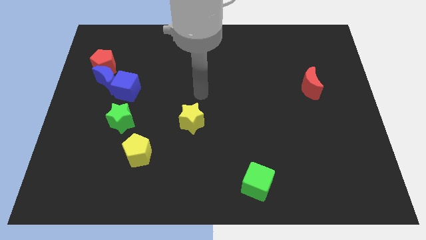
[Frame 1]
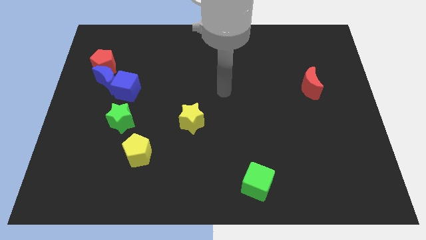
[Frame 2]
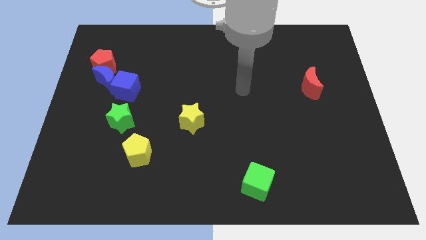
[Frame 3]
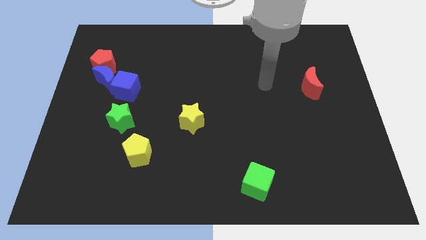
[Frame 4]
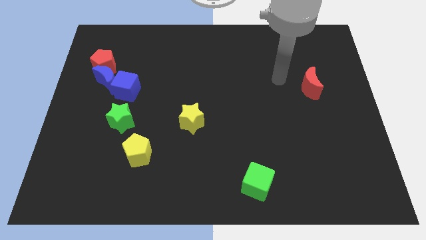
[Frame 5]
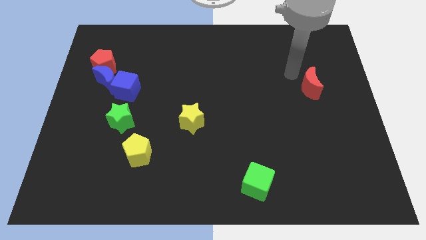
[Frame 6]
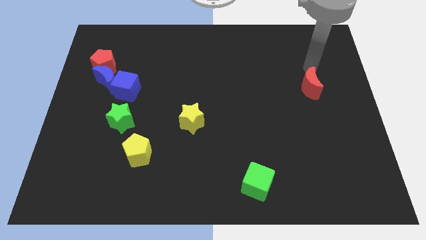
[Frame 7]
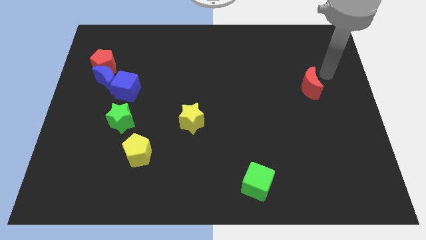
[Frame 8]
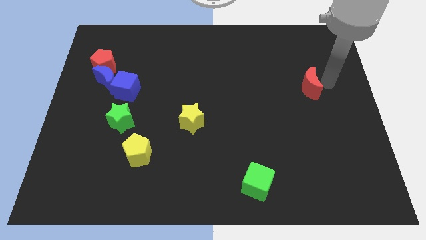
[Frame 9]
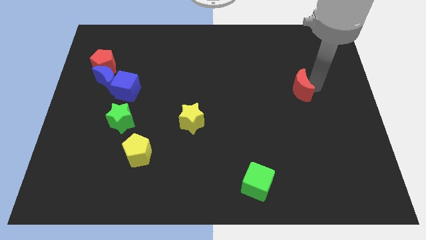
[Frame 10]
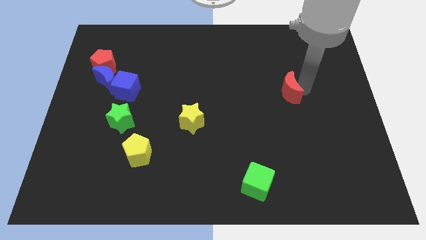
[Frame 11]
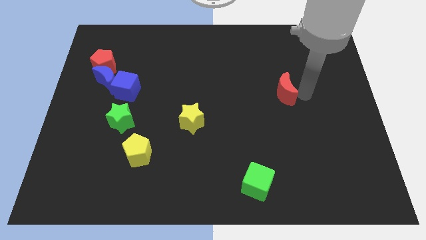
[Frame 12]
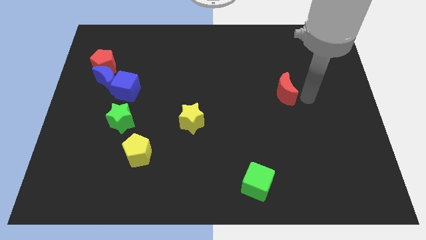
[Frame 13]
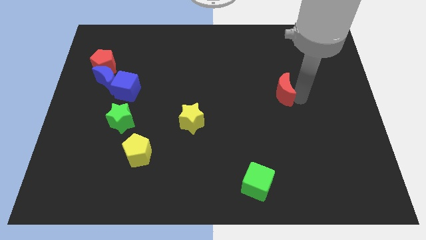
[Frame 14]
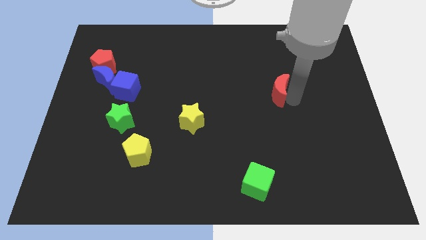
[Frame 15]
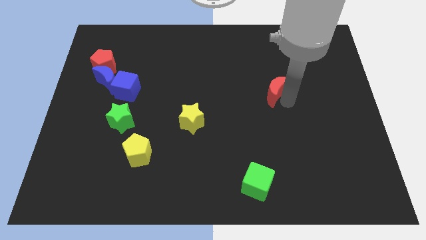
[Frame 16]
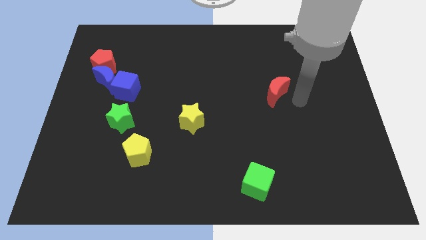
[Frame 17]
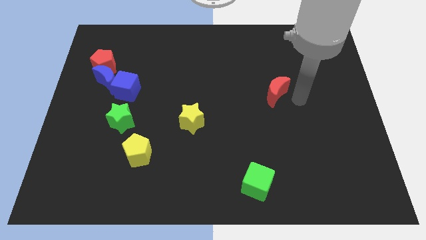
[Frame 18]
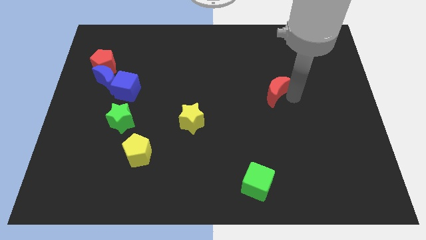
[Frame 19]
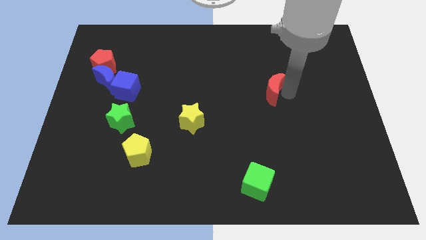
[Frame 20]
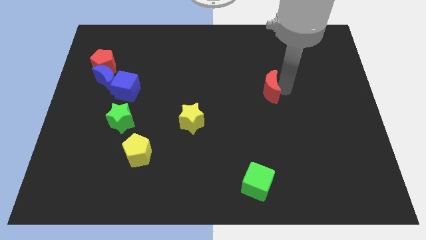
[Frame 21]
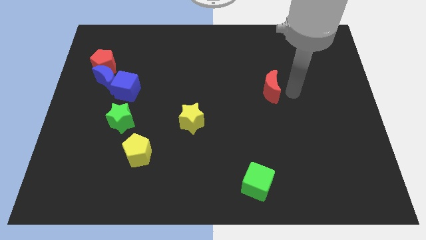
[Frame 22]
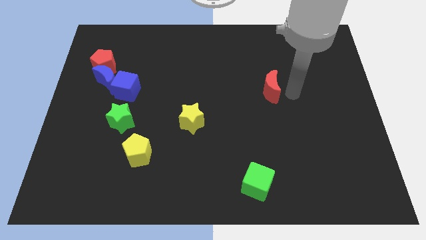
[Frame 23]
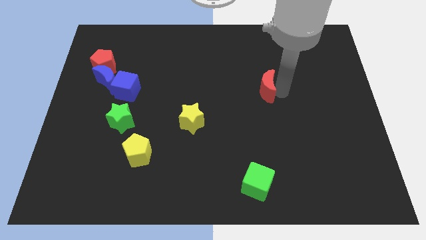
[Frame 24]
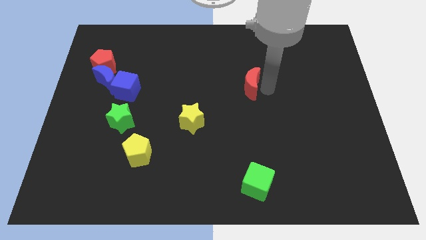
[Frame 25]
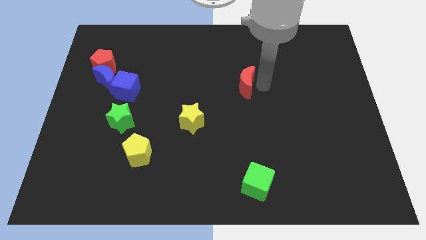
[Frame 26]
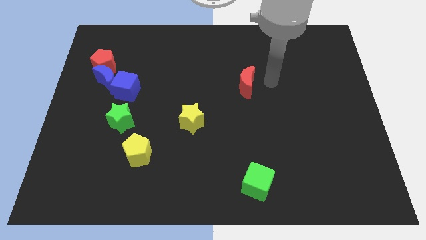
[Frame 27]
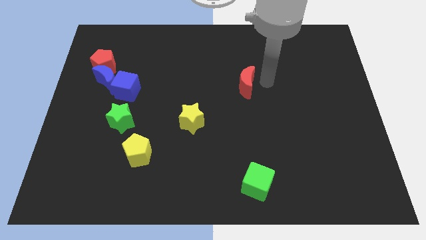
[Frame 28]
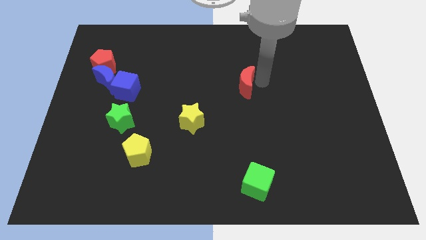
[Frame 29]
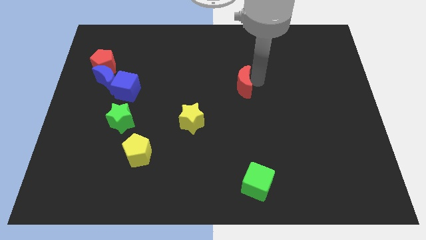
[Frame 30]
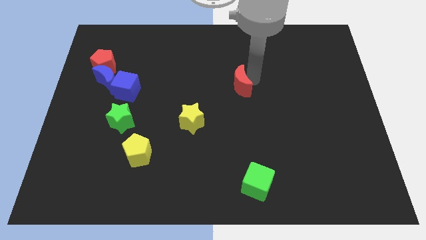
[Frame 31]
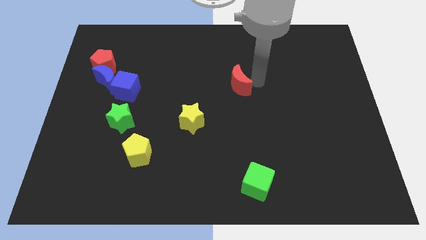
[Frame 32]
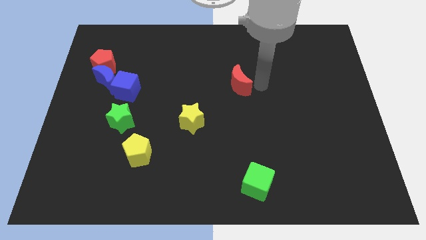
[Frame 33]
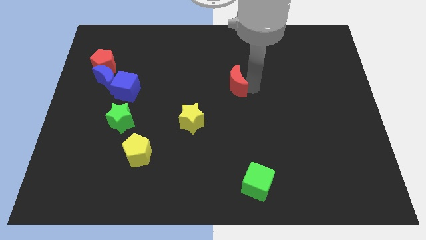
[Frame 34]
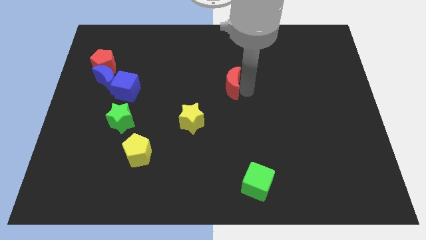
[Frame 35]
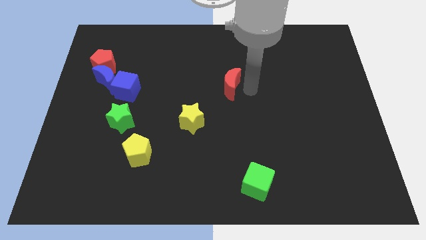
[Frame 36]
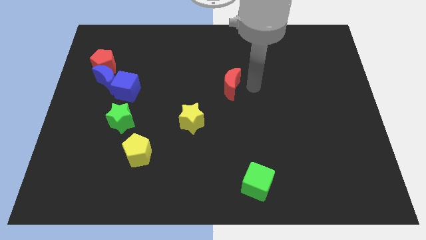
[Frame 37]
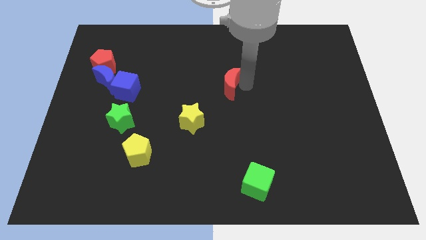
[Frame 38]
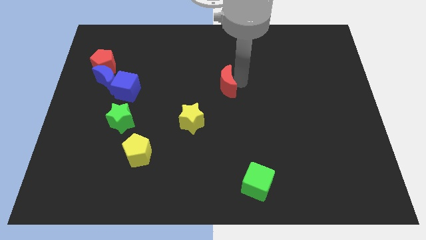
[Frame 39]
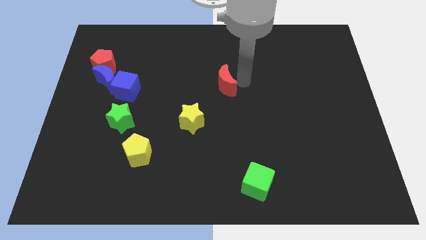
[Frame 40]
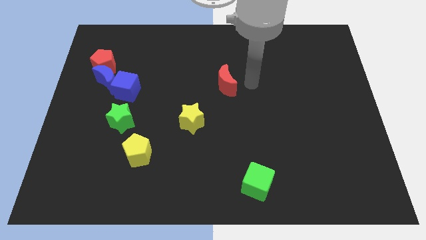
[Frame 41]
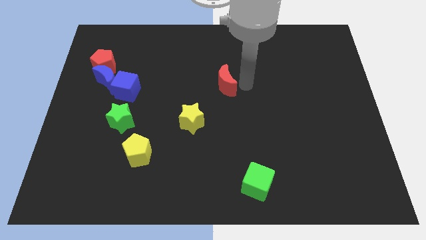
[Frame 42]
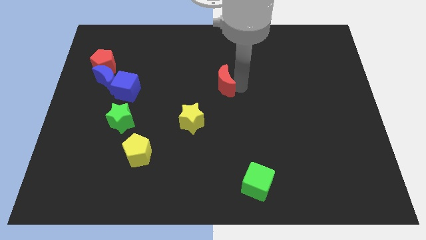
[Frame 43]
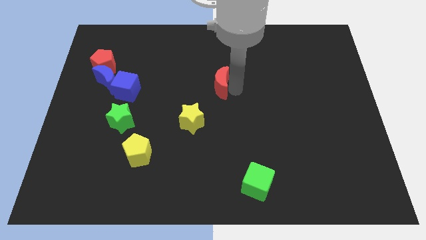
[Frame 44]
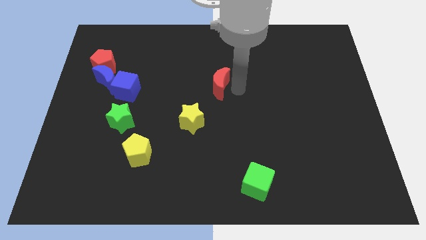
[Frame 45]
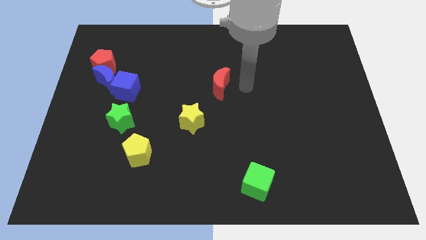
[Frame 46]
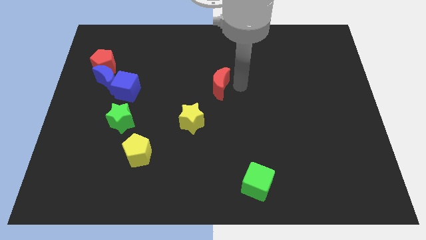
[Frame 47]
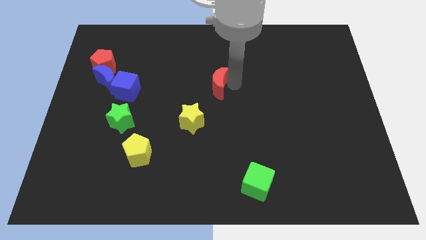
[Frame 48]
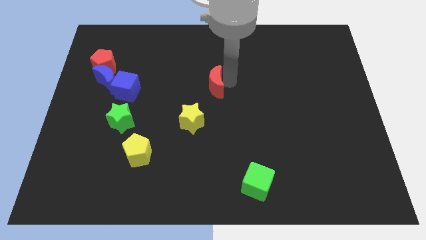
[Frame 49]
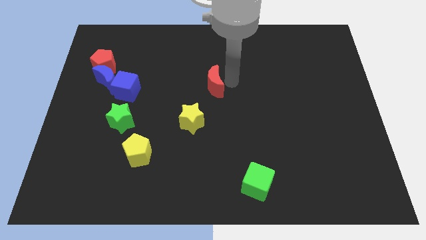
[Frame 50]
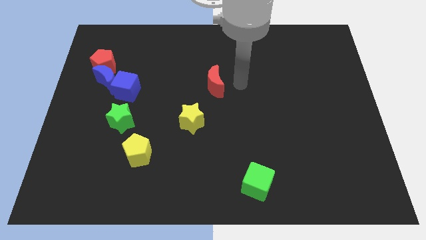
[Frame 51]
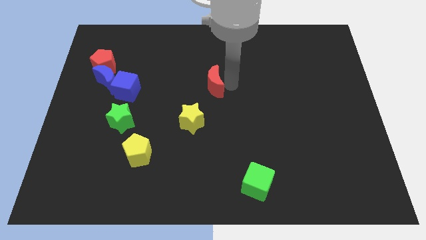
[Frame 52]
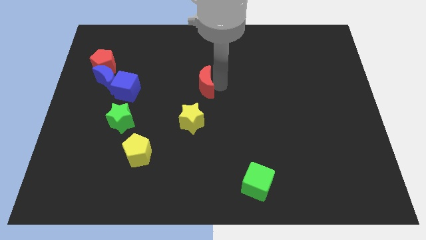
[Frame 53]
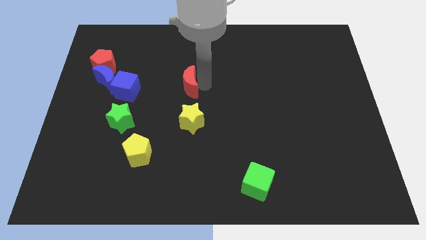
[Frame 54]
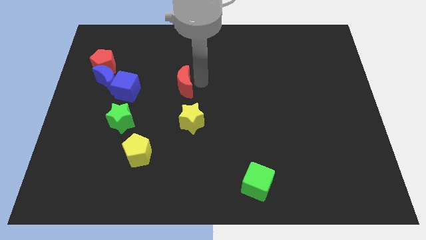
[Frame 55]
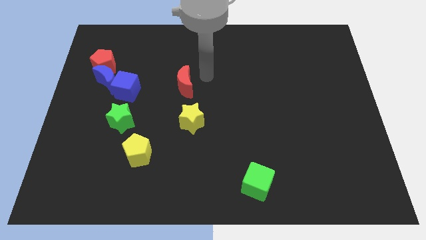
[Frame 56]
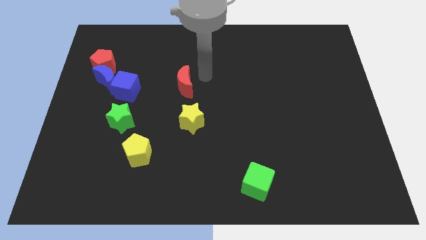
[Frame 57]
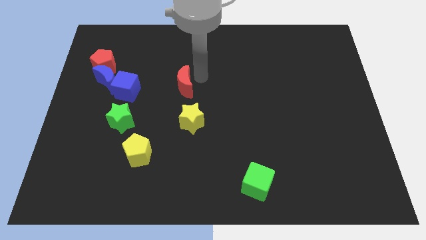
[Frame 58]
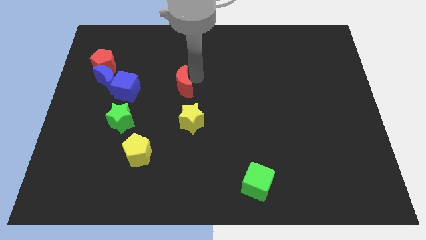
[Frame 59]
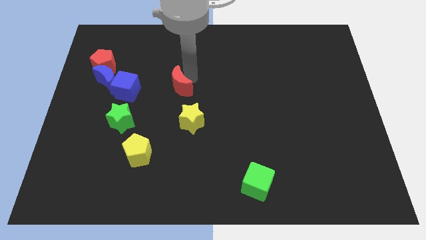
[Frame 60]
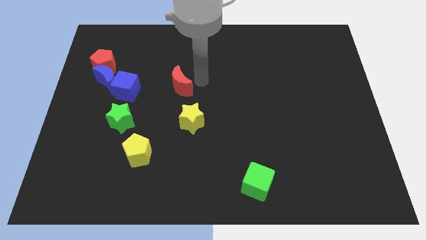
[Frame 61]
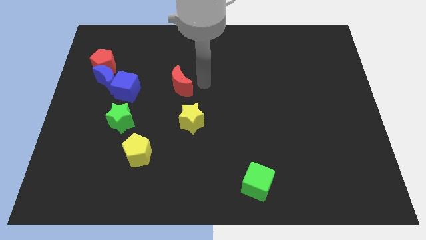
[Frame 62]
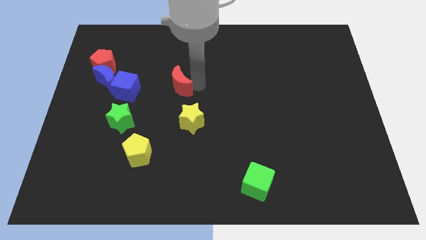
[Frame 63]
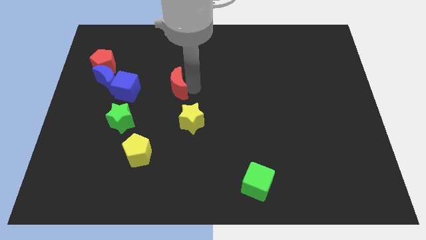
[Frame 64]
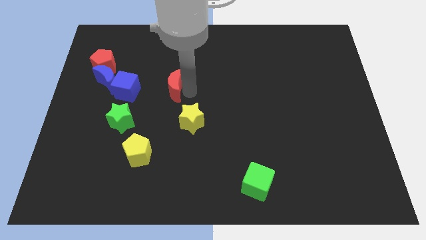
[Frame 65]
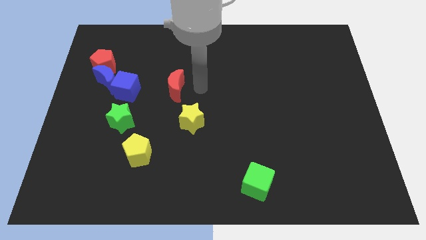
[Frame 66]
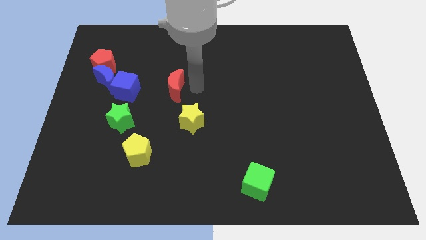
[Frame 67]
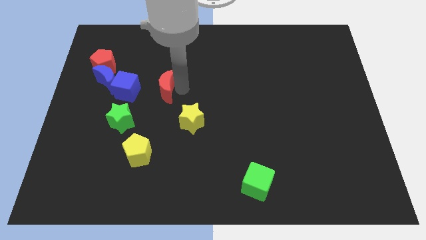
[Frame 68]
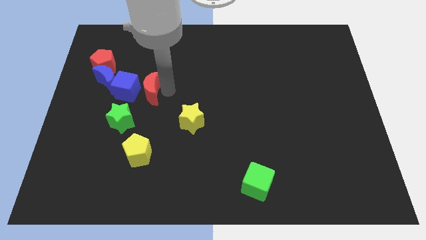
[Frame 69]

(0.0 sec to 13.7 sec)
push the red moon close to the blue cube
